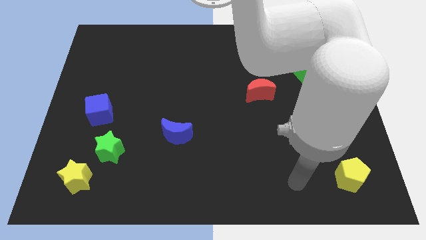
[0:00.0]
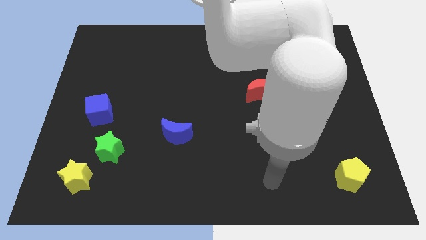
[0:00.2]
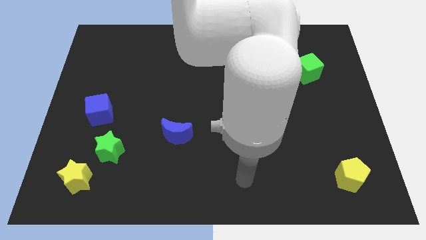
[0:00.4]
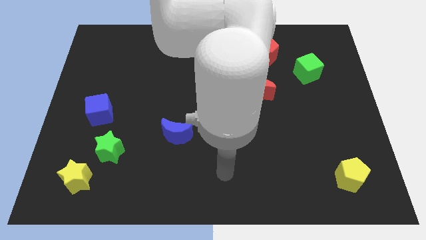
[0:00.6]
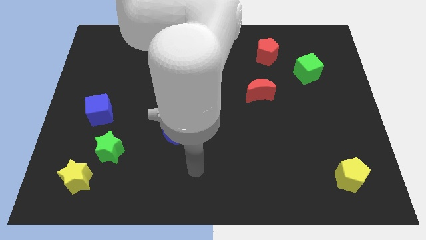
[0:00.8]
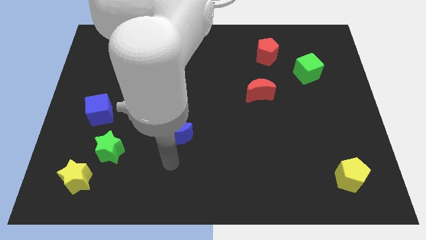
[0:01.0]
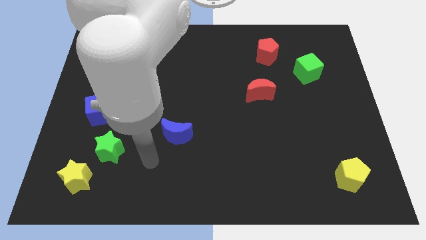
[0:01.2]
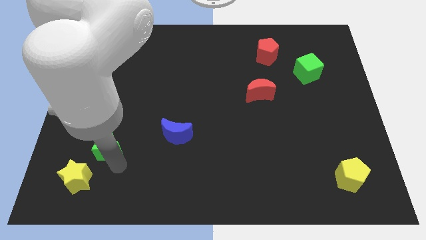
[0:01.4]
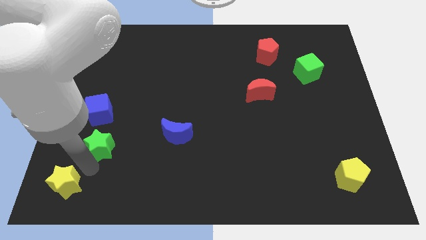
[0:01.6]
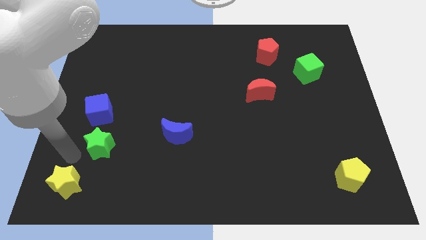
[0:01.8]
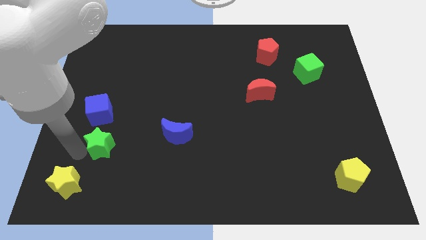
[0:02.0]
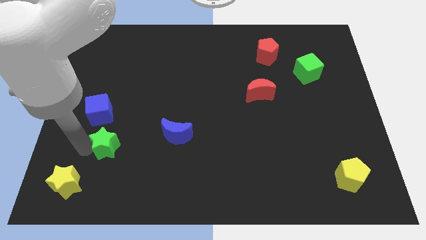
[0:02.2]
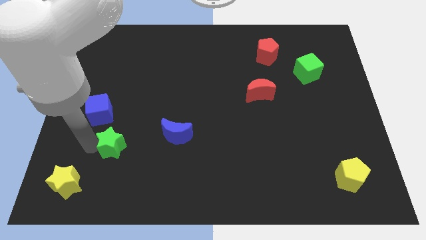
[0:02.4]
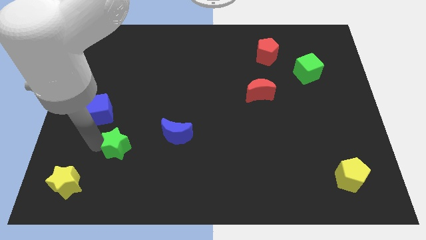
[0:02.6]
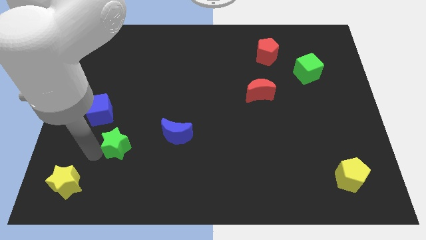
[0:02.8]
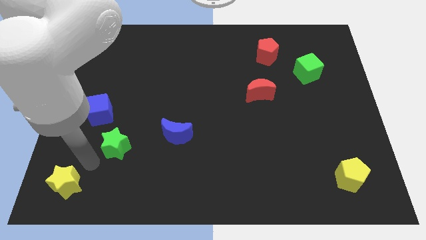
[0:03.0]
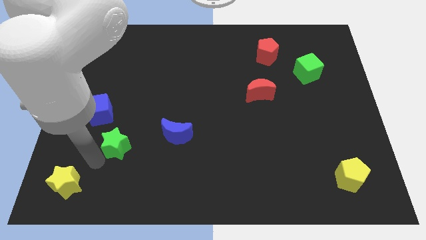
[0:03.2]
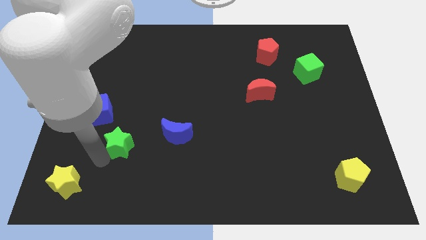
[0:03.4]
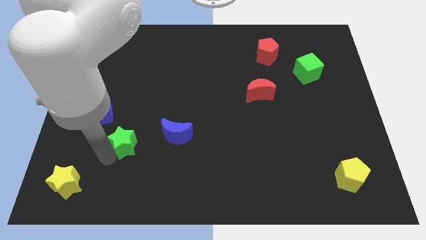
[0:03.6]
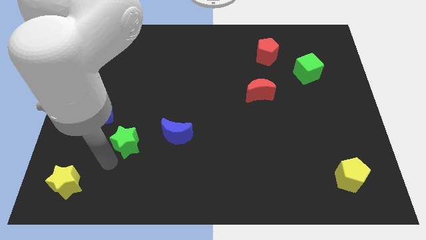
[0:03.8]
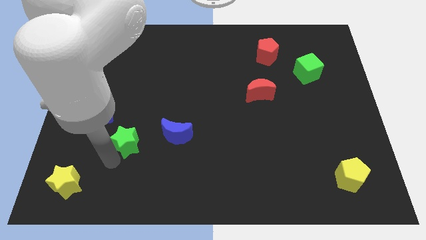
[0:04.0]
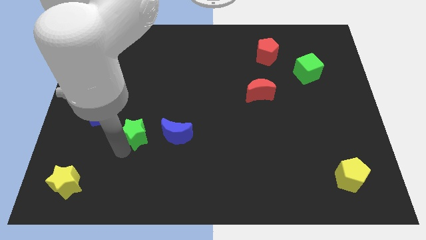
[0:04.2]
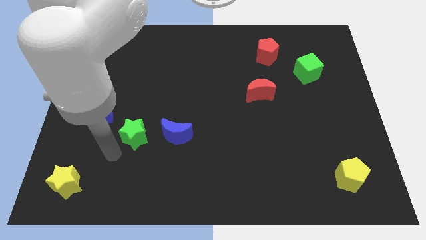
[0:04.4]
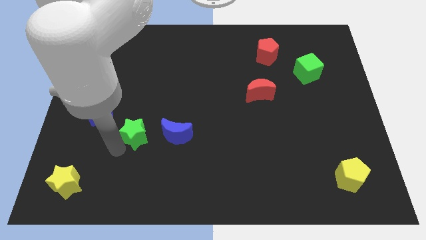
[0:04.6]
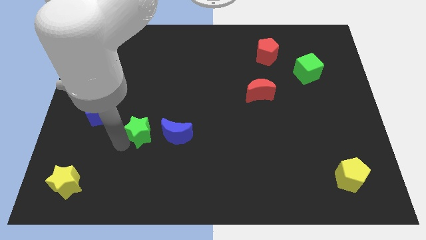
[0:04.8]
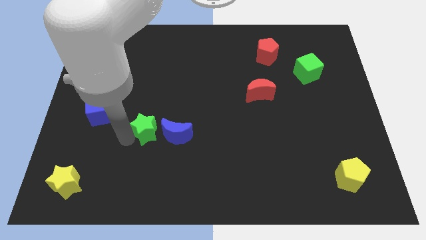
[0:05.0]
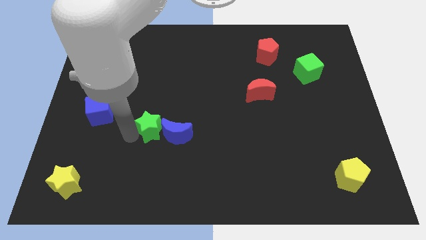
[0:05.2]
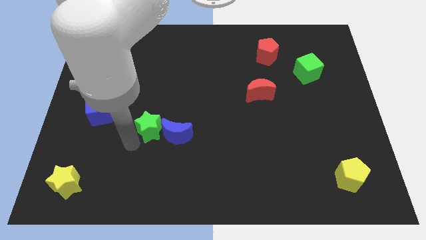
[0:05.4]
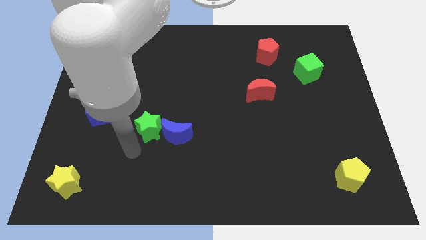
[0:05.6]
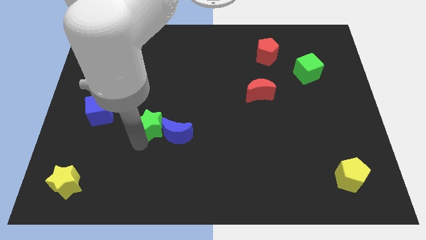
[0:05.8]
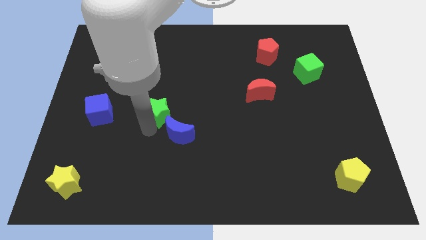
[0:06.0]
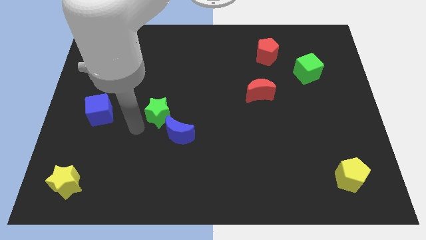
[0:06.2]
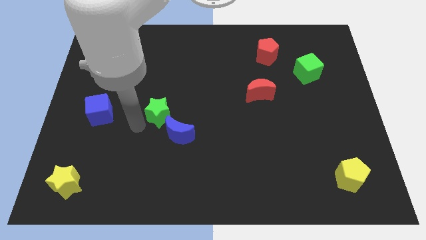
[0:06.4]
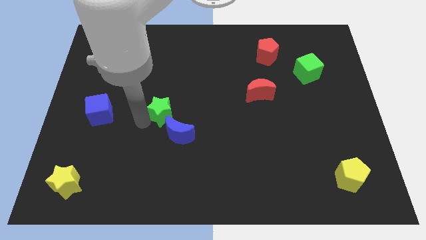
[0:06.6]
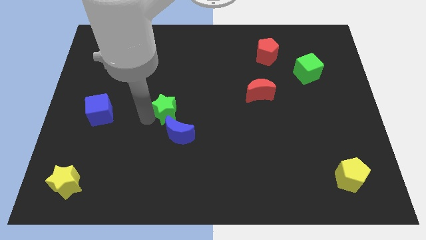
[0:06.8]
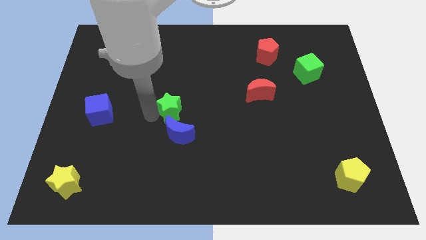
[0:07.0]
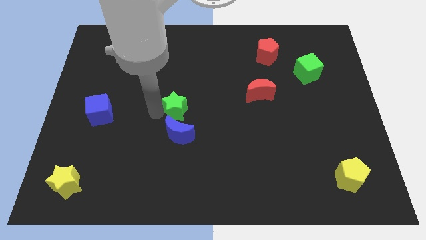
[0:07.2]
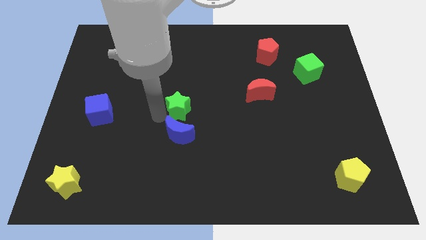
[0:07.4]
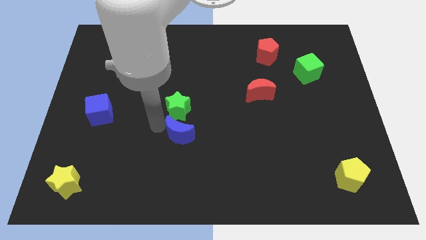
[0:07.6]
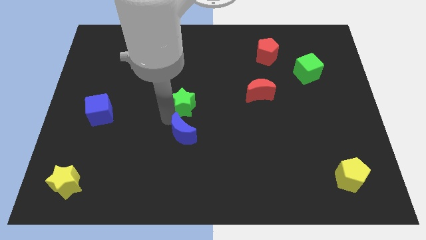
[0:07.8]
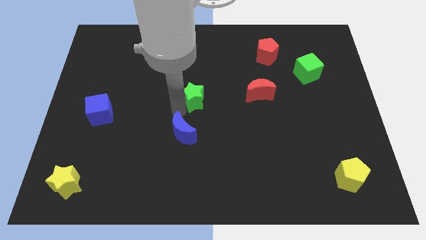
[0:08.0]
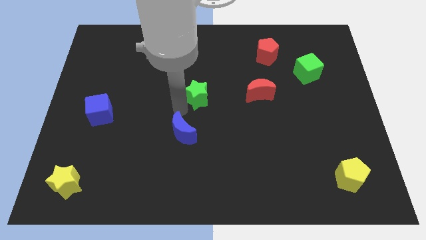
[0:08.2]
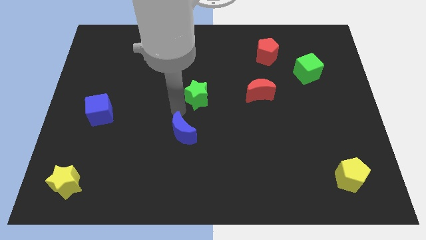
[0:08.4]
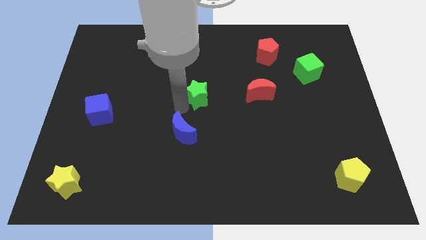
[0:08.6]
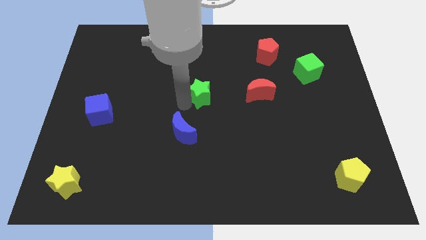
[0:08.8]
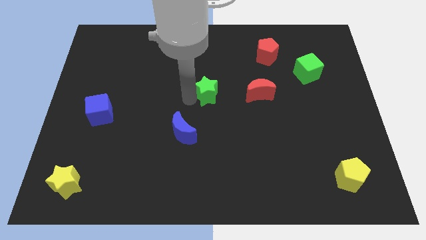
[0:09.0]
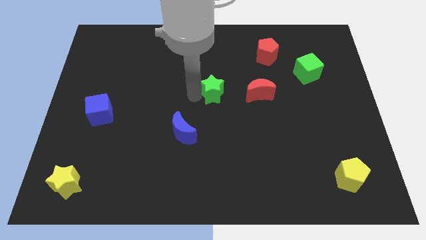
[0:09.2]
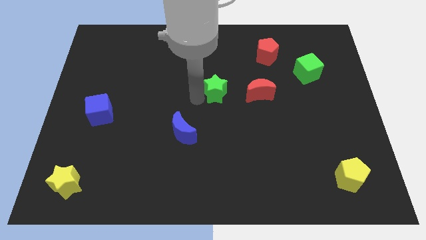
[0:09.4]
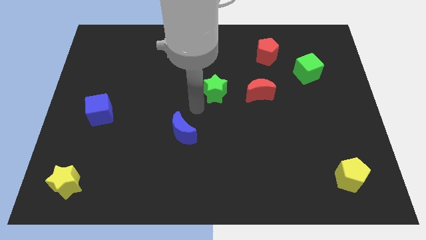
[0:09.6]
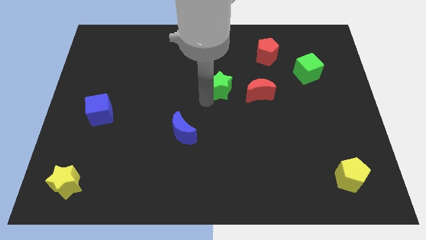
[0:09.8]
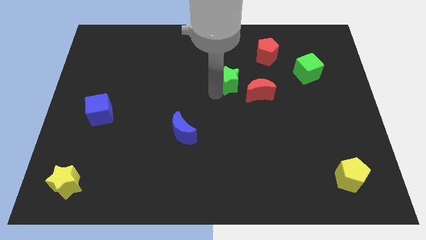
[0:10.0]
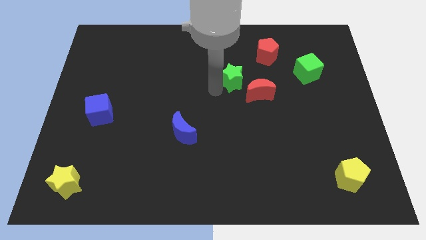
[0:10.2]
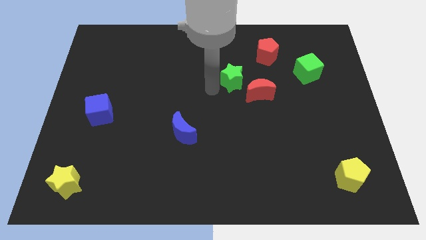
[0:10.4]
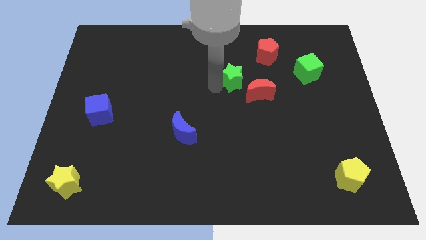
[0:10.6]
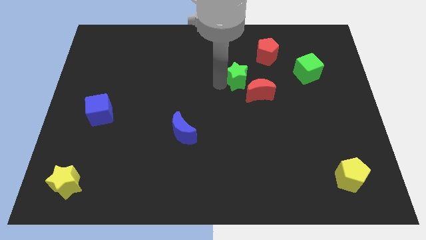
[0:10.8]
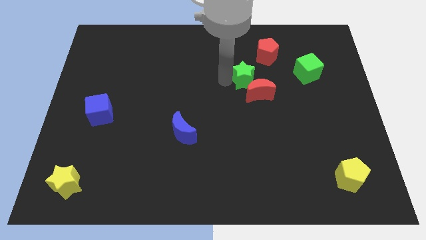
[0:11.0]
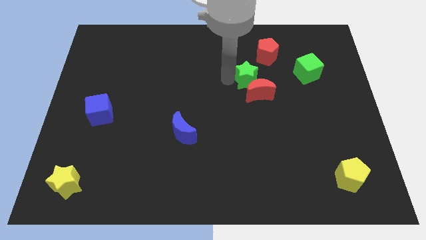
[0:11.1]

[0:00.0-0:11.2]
put the green star left of the green cube

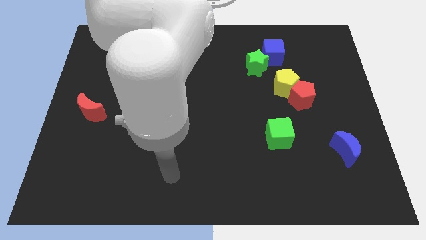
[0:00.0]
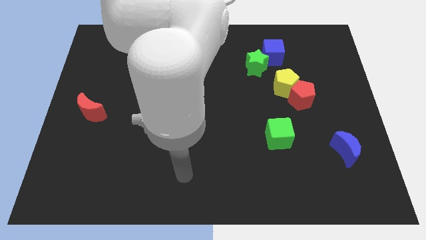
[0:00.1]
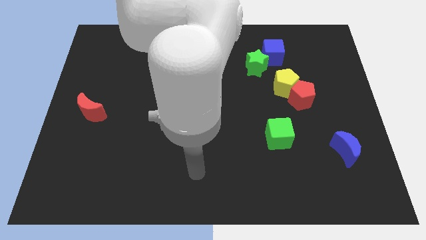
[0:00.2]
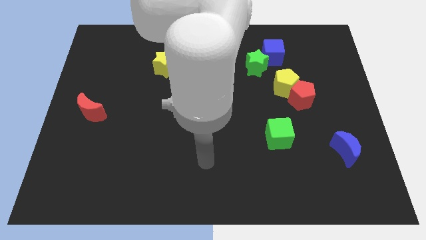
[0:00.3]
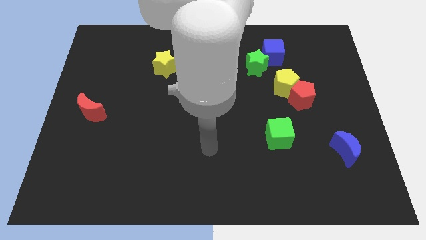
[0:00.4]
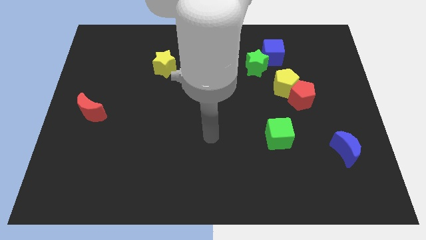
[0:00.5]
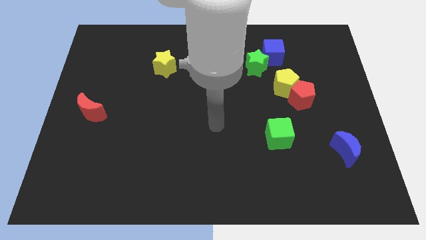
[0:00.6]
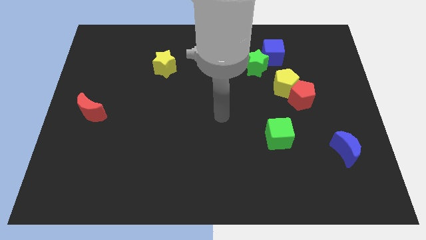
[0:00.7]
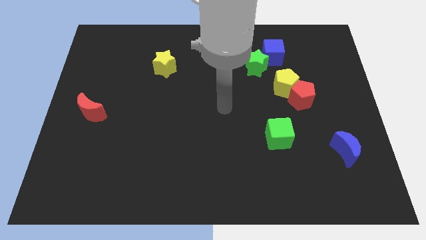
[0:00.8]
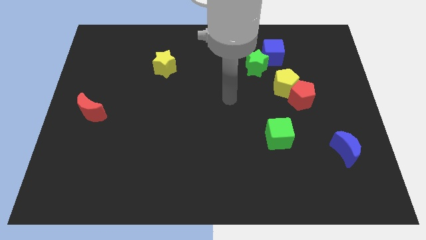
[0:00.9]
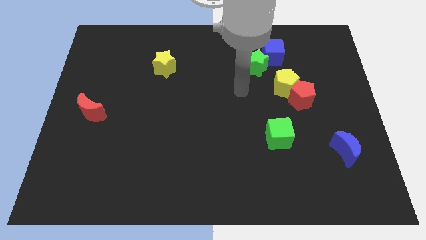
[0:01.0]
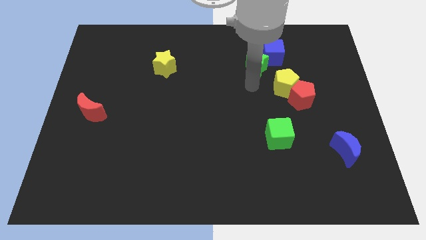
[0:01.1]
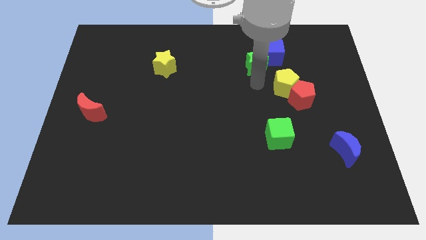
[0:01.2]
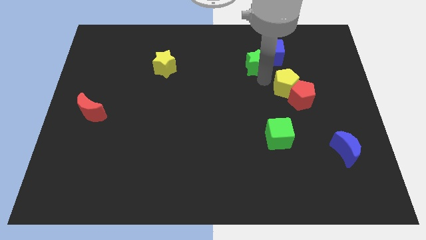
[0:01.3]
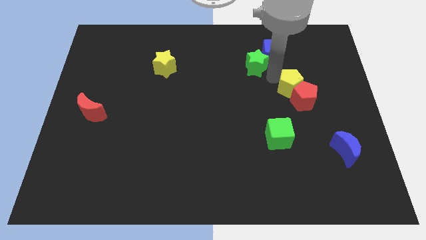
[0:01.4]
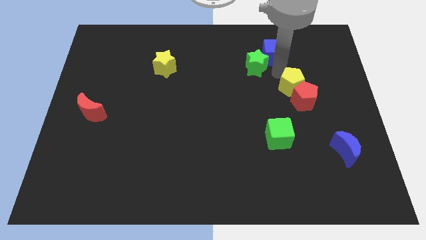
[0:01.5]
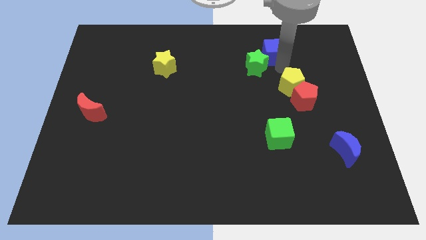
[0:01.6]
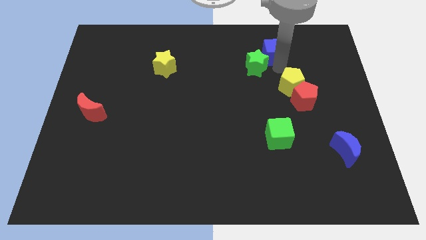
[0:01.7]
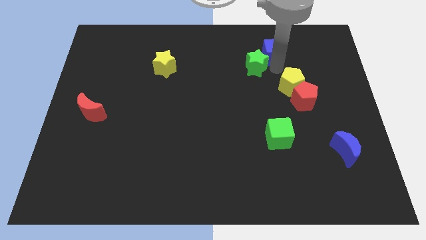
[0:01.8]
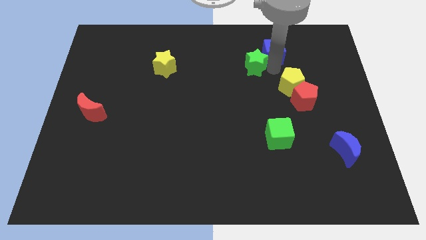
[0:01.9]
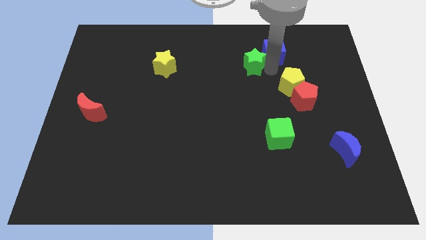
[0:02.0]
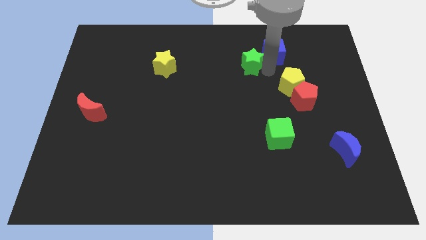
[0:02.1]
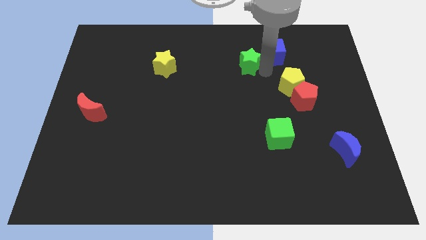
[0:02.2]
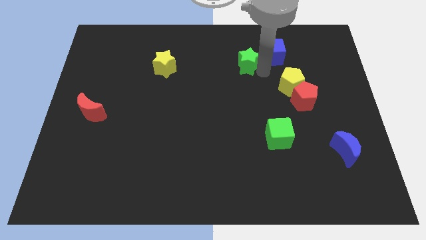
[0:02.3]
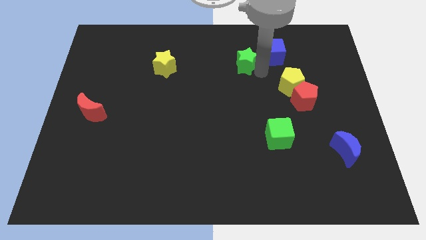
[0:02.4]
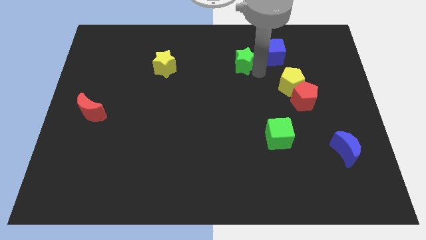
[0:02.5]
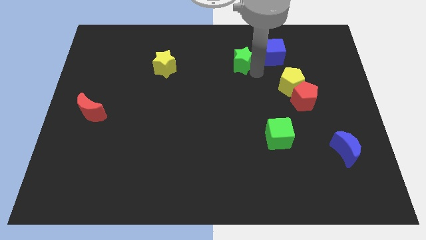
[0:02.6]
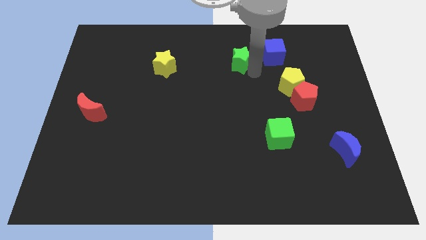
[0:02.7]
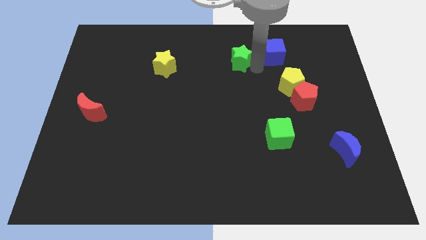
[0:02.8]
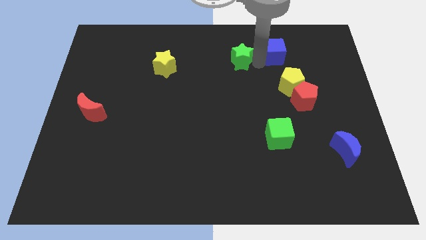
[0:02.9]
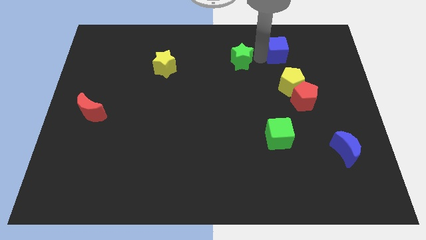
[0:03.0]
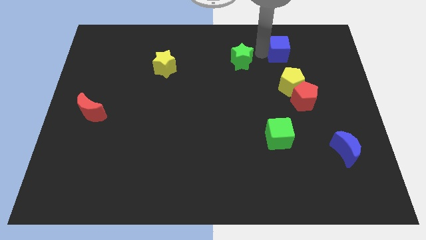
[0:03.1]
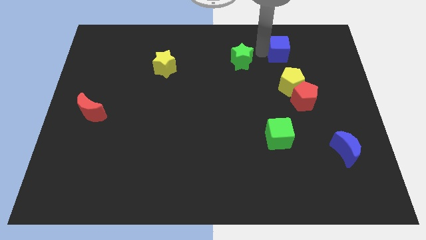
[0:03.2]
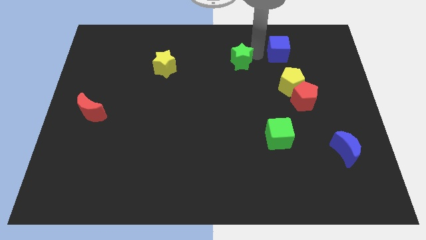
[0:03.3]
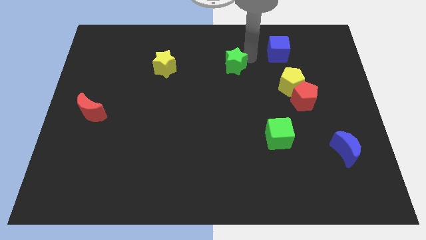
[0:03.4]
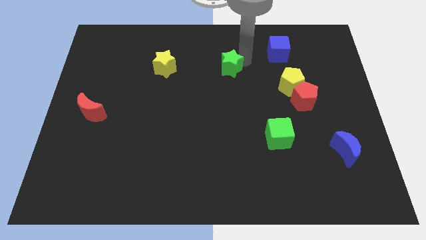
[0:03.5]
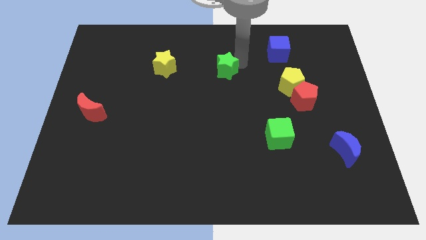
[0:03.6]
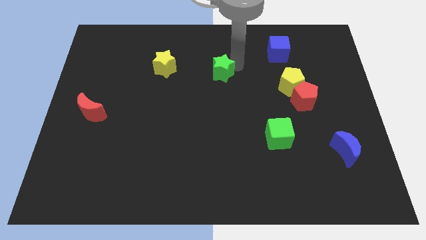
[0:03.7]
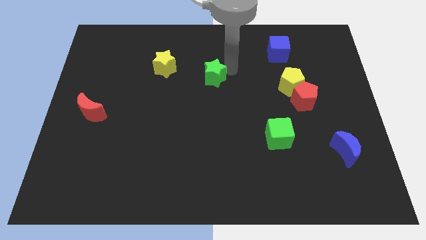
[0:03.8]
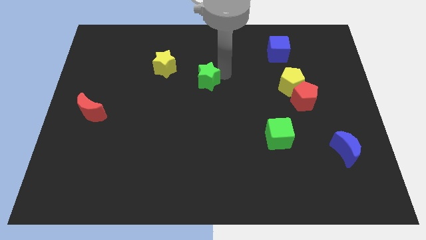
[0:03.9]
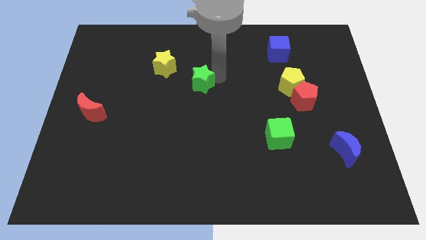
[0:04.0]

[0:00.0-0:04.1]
move the green star diagonally down and to the right of the yellow star
